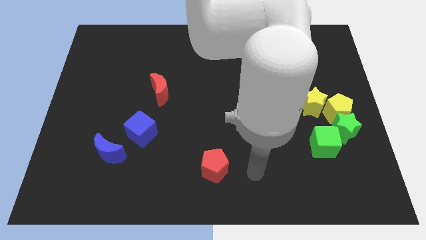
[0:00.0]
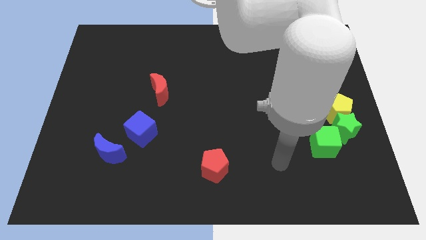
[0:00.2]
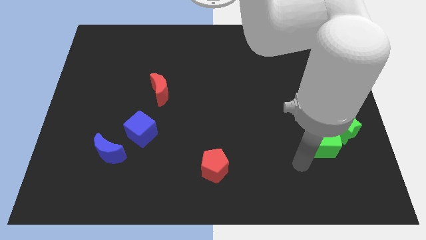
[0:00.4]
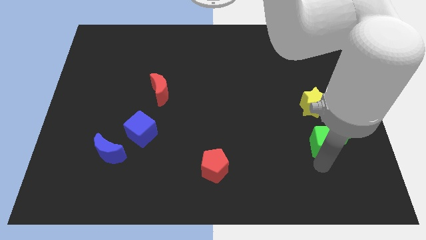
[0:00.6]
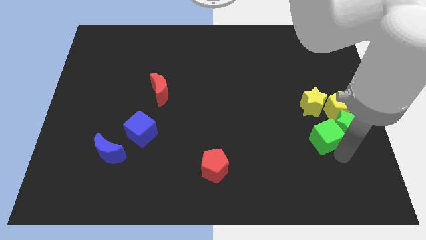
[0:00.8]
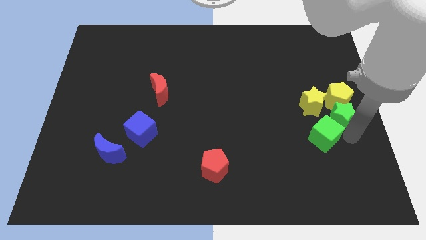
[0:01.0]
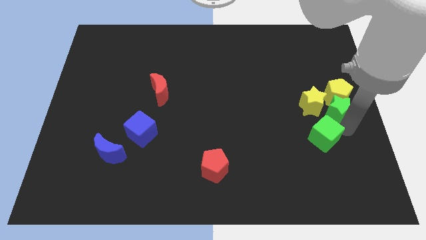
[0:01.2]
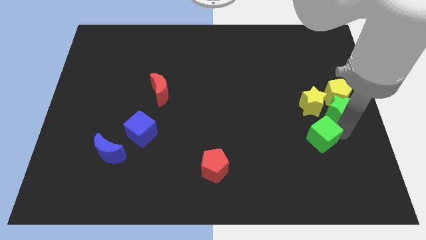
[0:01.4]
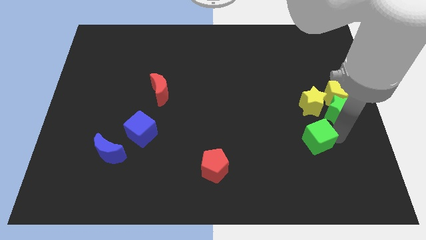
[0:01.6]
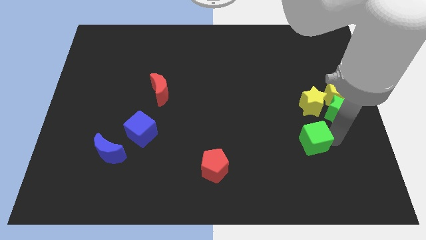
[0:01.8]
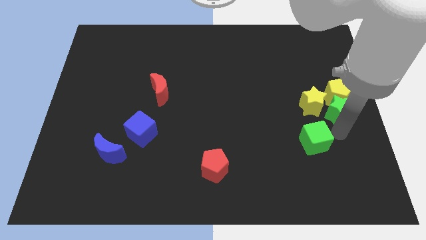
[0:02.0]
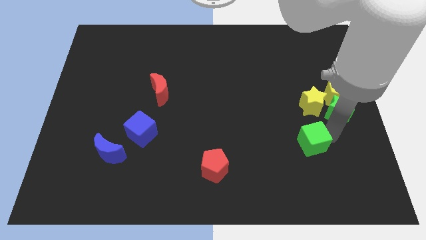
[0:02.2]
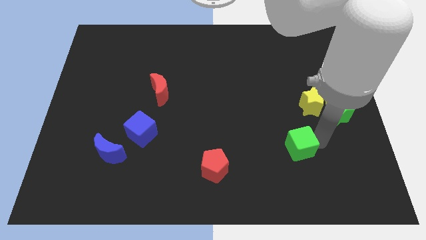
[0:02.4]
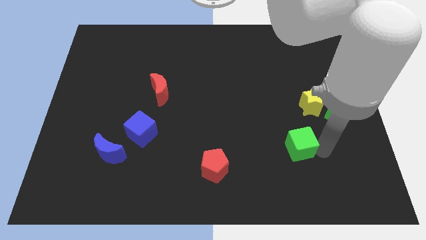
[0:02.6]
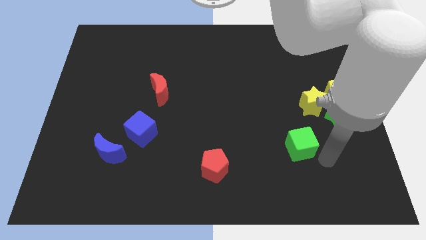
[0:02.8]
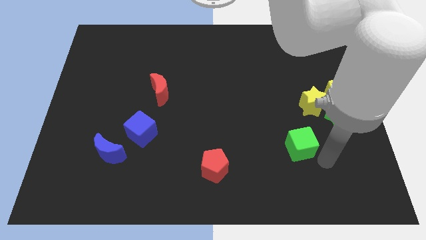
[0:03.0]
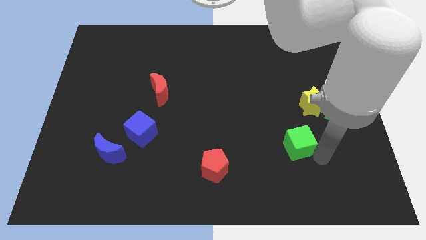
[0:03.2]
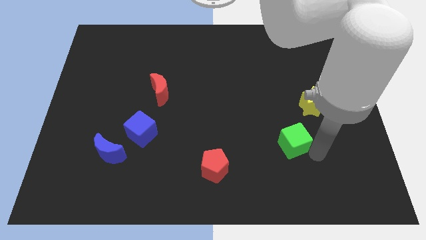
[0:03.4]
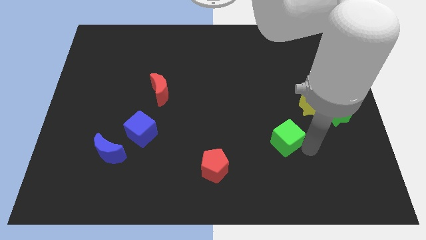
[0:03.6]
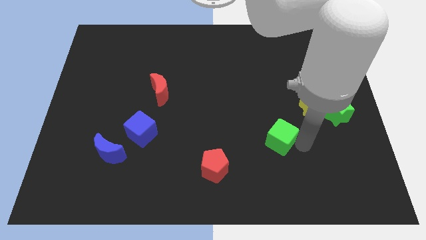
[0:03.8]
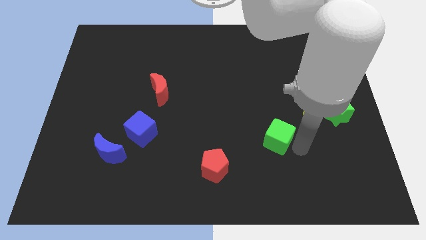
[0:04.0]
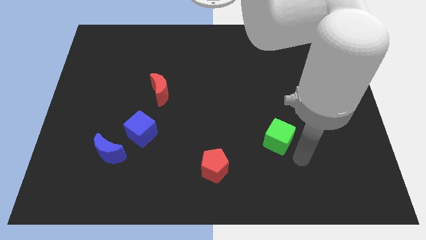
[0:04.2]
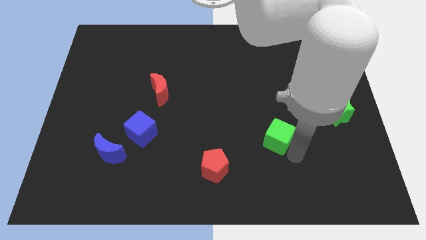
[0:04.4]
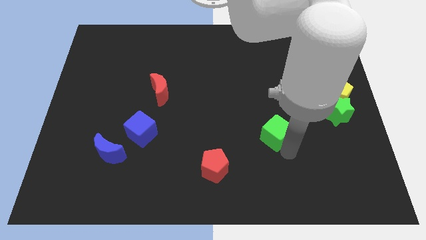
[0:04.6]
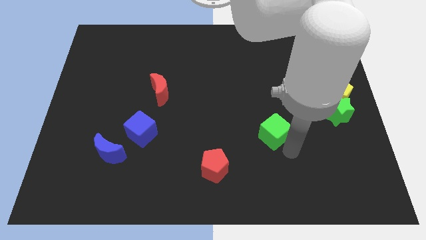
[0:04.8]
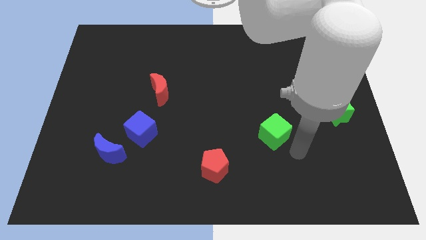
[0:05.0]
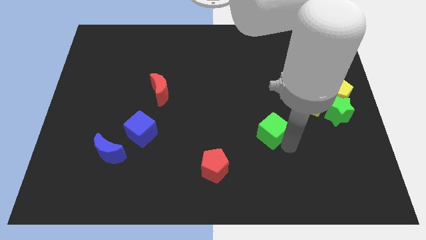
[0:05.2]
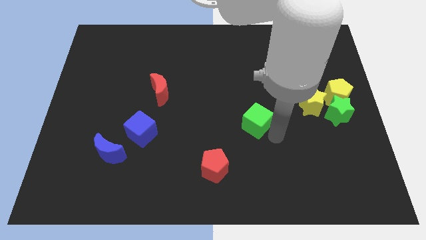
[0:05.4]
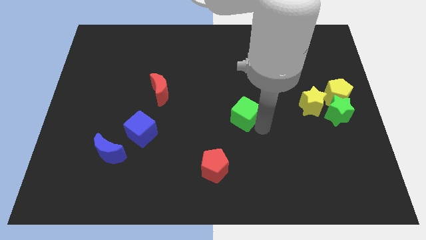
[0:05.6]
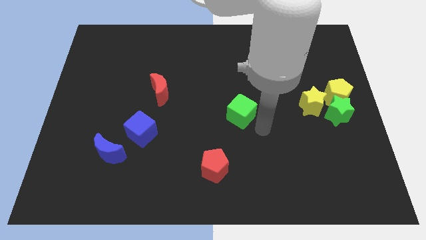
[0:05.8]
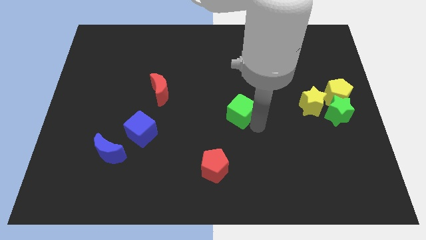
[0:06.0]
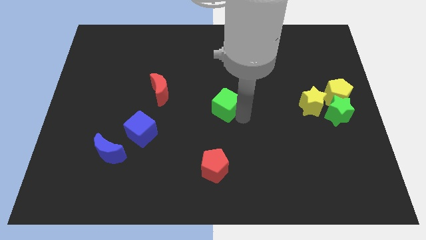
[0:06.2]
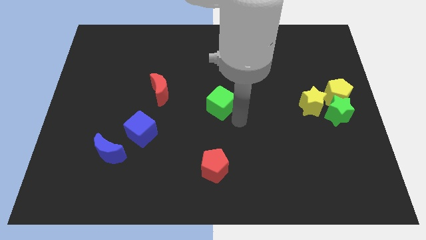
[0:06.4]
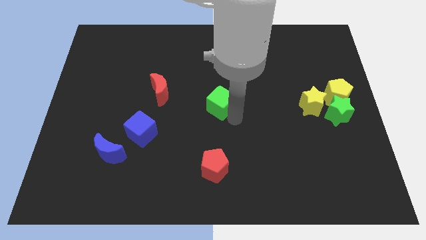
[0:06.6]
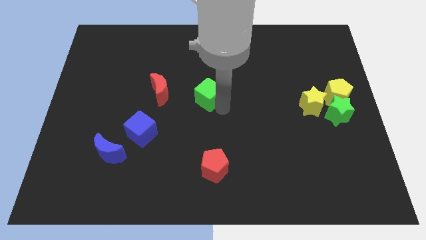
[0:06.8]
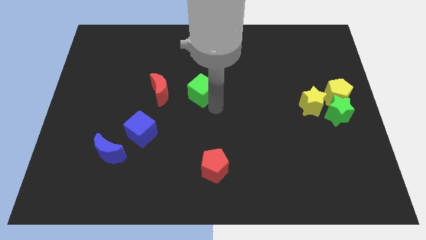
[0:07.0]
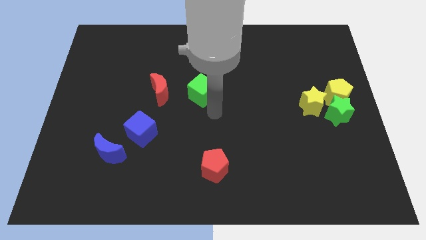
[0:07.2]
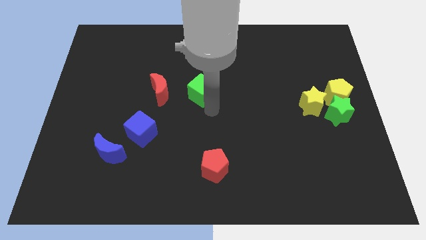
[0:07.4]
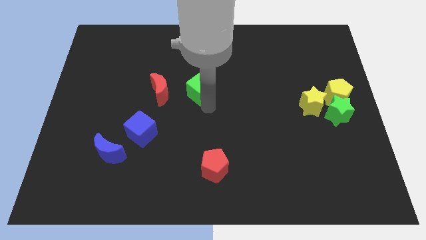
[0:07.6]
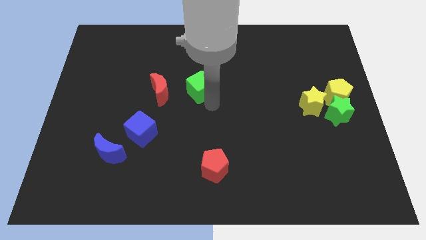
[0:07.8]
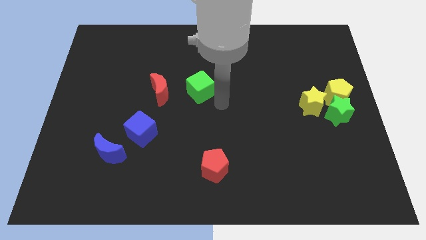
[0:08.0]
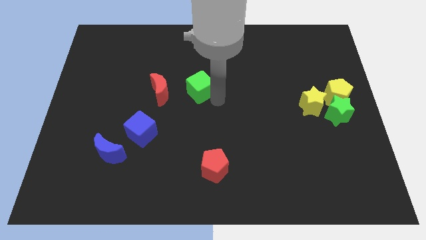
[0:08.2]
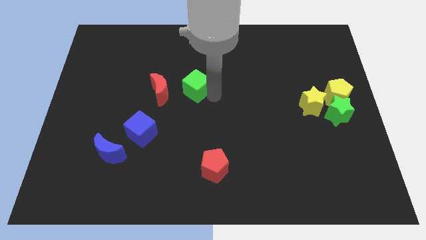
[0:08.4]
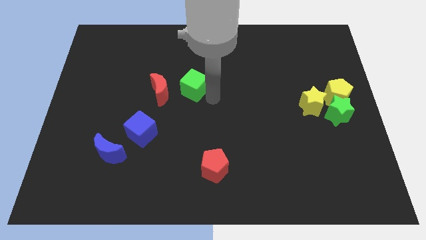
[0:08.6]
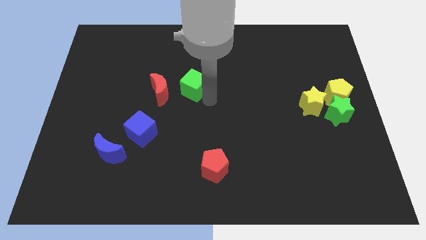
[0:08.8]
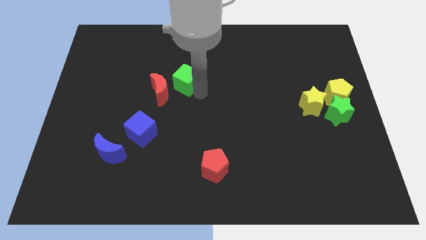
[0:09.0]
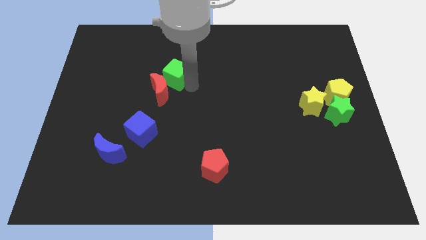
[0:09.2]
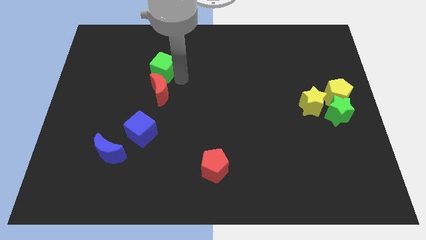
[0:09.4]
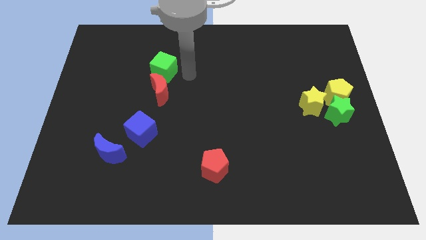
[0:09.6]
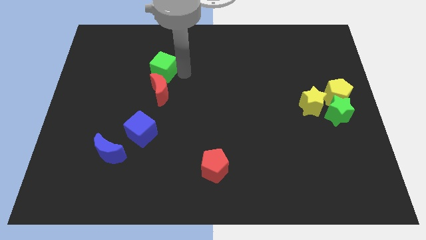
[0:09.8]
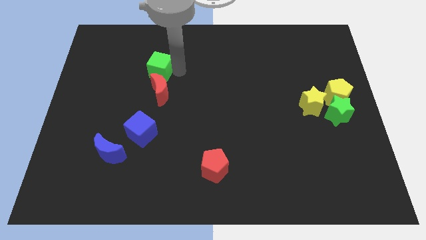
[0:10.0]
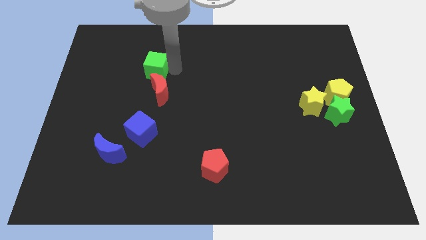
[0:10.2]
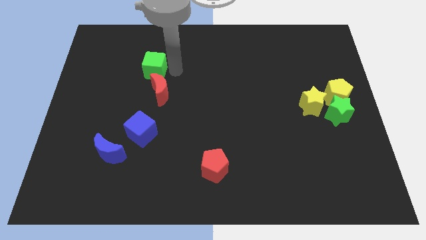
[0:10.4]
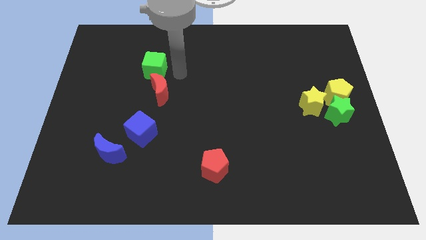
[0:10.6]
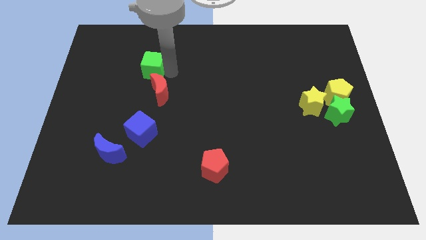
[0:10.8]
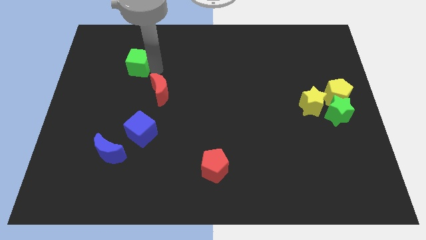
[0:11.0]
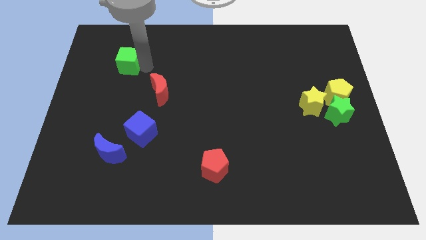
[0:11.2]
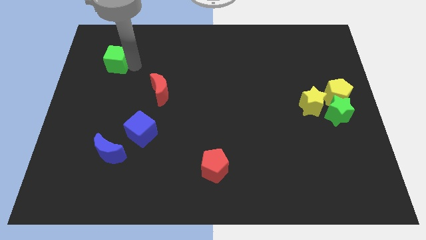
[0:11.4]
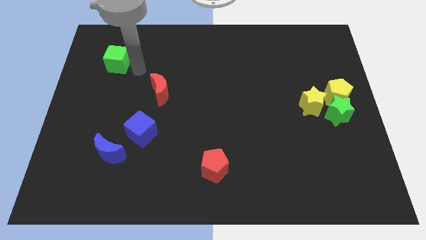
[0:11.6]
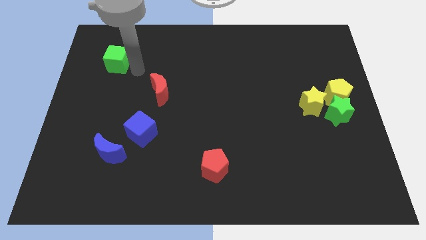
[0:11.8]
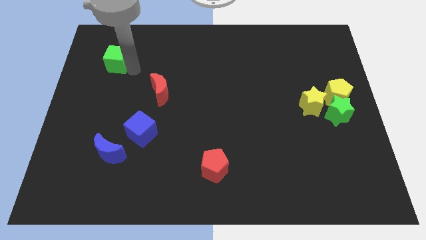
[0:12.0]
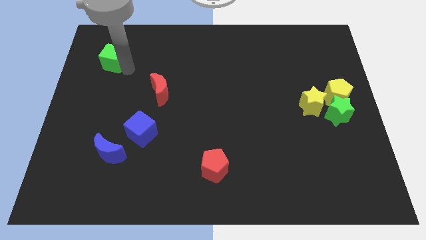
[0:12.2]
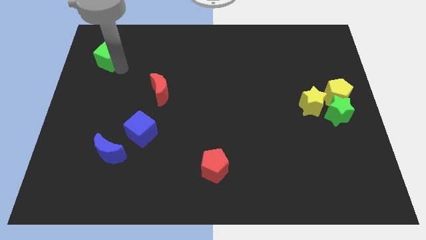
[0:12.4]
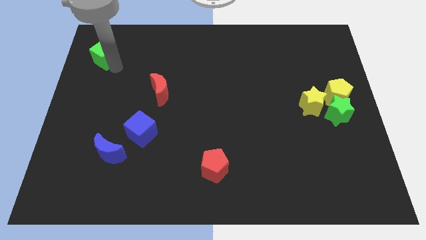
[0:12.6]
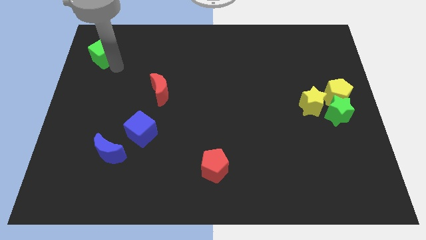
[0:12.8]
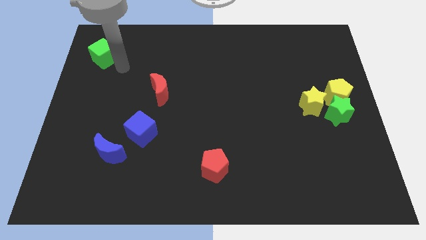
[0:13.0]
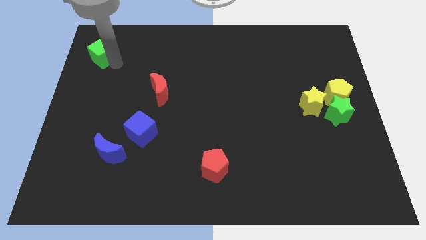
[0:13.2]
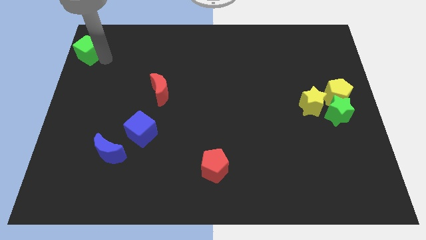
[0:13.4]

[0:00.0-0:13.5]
move the green cube to the top left
